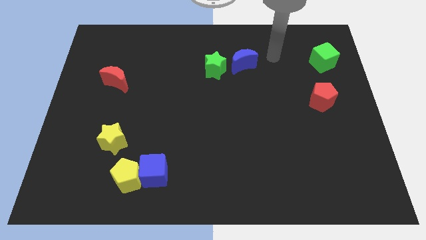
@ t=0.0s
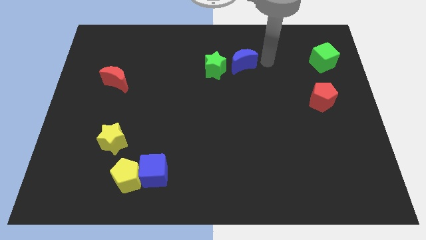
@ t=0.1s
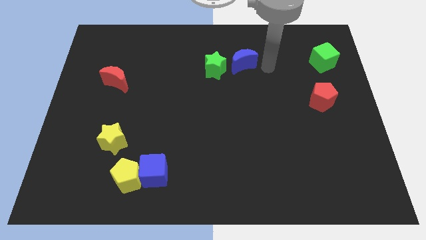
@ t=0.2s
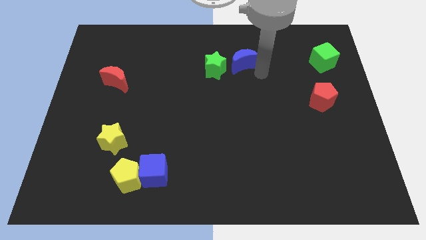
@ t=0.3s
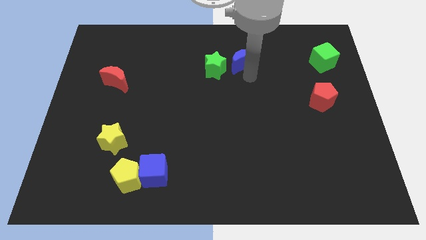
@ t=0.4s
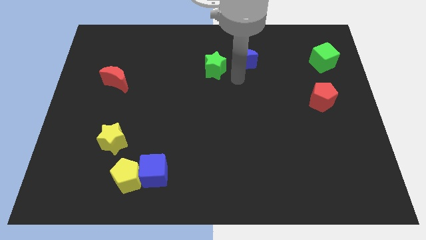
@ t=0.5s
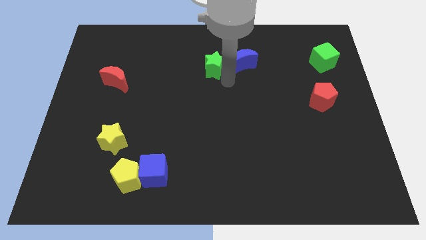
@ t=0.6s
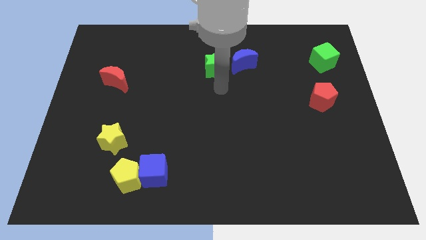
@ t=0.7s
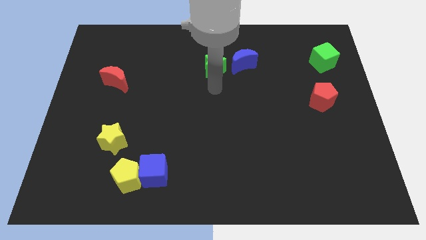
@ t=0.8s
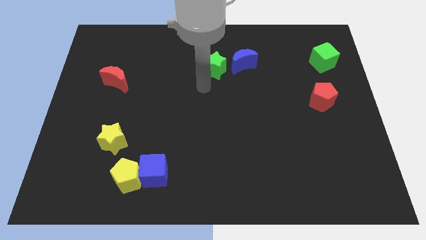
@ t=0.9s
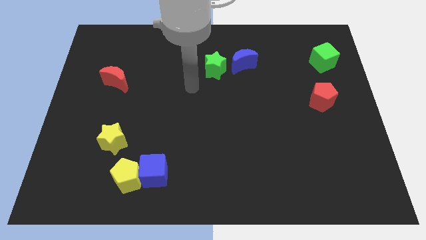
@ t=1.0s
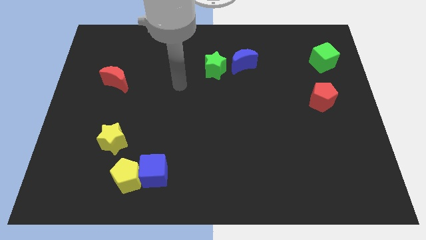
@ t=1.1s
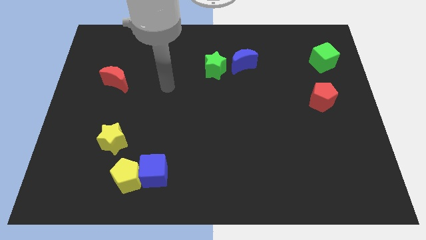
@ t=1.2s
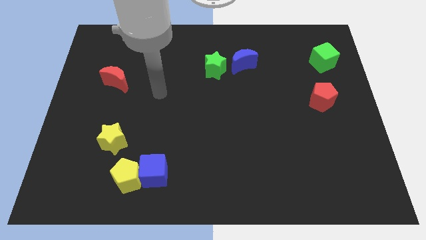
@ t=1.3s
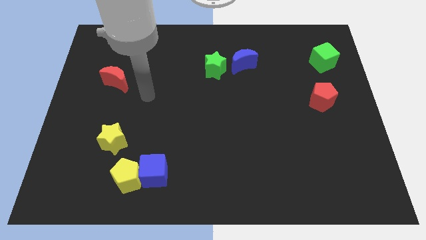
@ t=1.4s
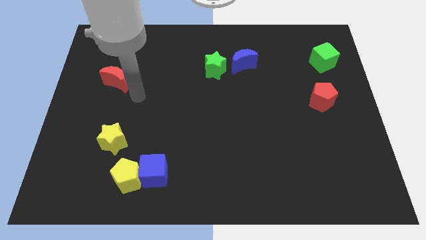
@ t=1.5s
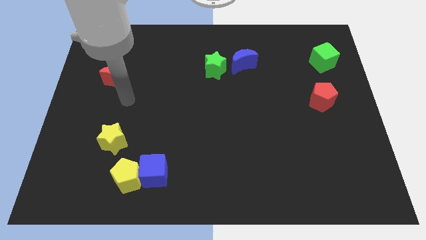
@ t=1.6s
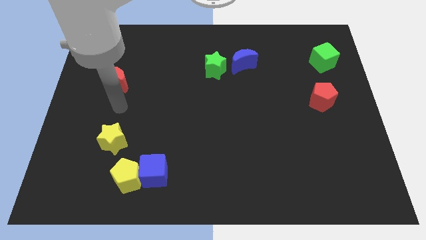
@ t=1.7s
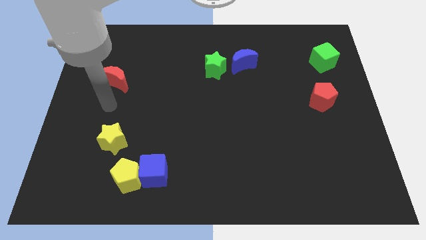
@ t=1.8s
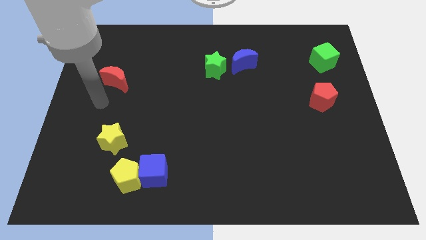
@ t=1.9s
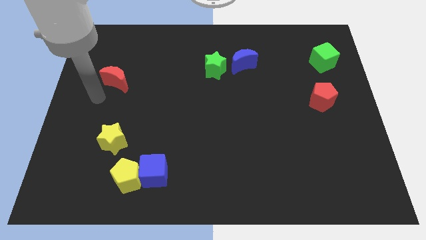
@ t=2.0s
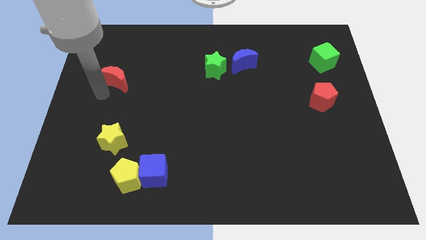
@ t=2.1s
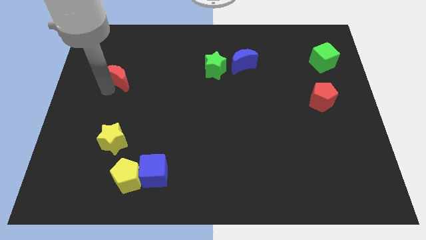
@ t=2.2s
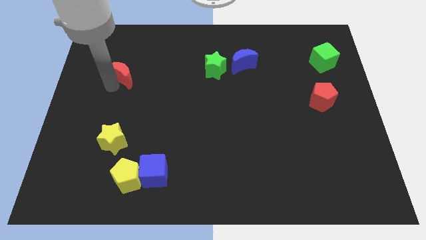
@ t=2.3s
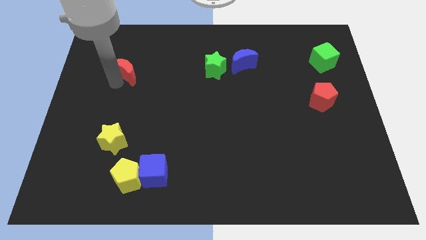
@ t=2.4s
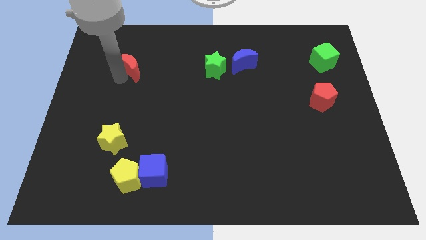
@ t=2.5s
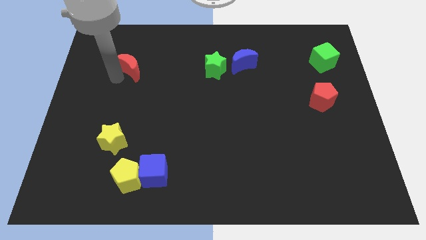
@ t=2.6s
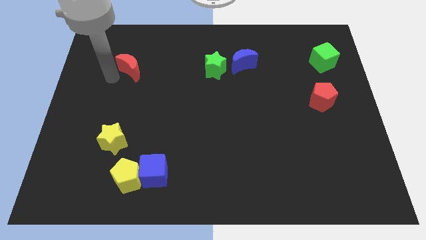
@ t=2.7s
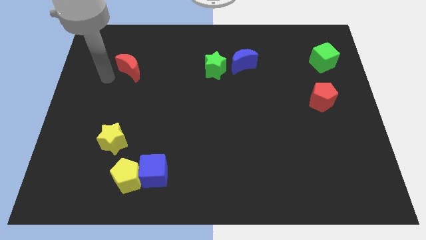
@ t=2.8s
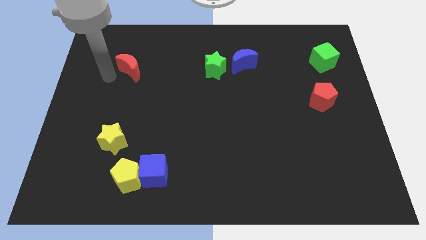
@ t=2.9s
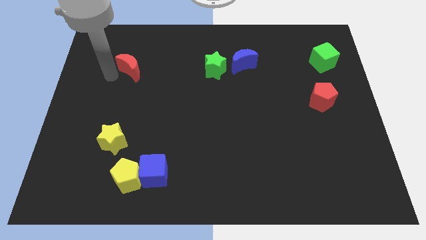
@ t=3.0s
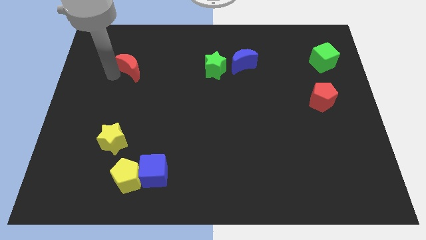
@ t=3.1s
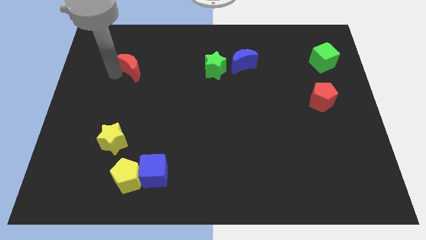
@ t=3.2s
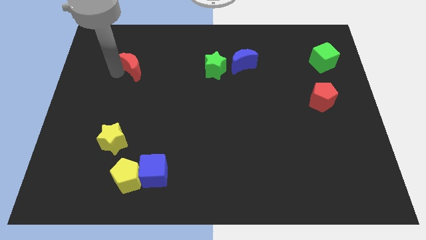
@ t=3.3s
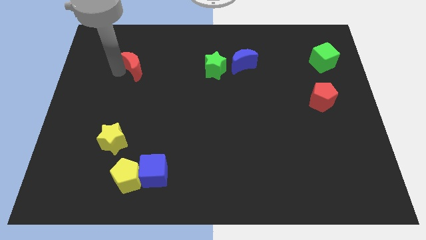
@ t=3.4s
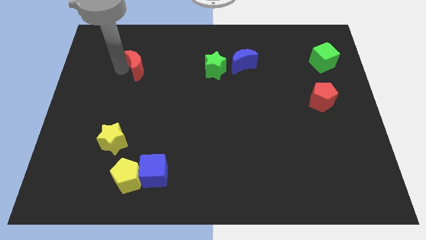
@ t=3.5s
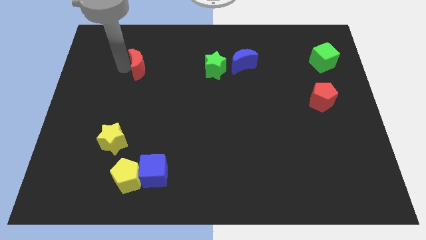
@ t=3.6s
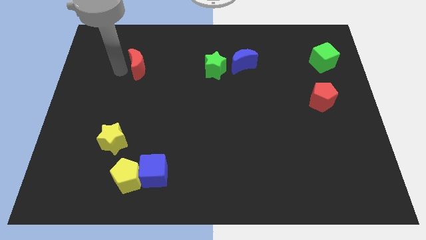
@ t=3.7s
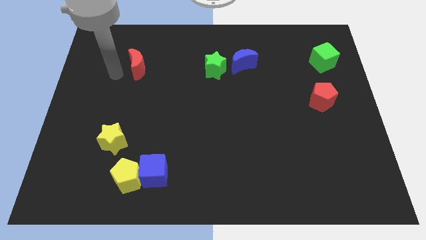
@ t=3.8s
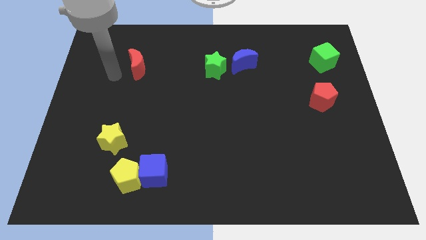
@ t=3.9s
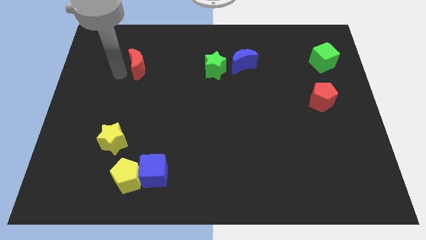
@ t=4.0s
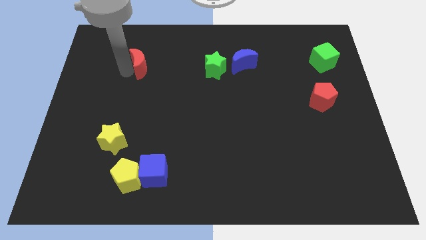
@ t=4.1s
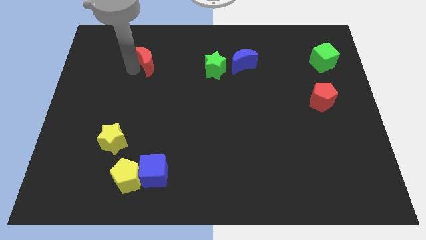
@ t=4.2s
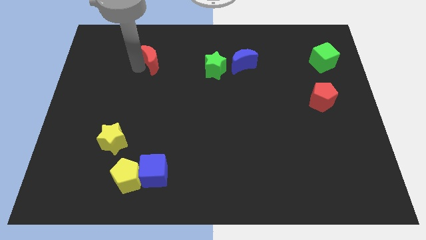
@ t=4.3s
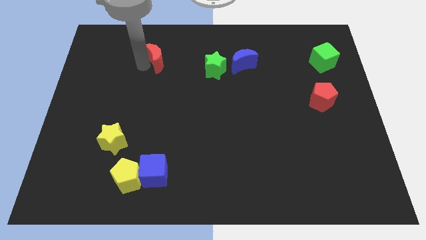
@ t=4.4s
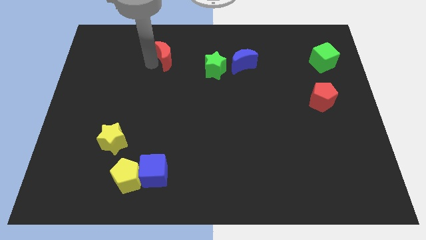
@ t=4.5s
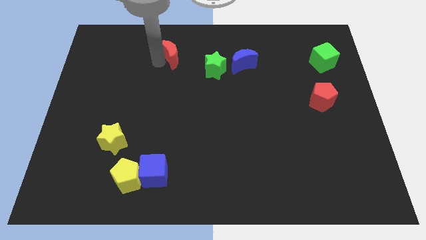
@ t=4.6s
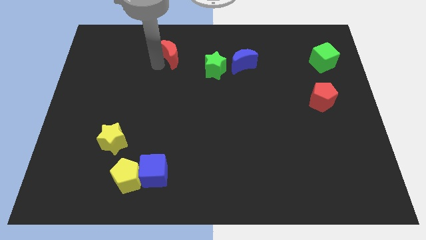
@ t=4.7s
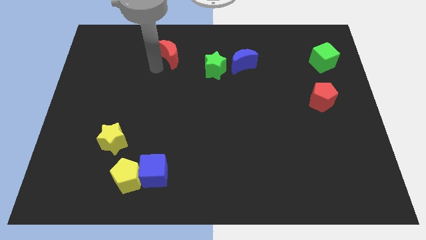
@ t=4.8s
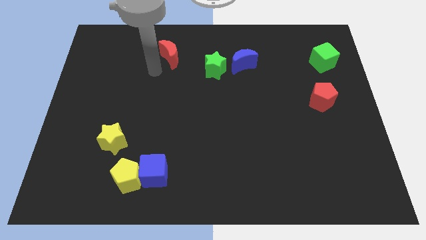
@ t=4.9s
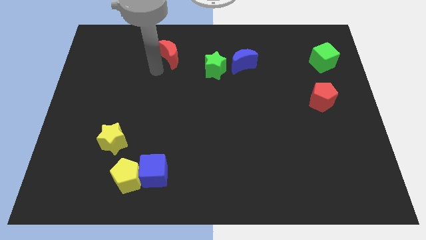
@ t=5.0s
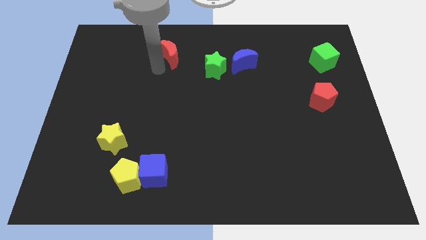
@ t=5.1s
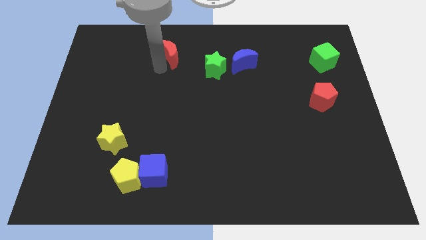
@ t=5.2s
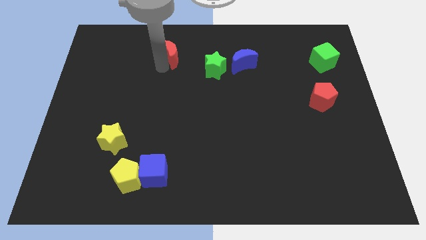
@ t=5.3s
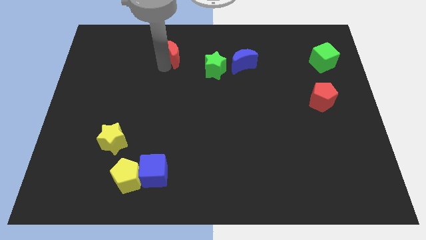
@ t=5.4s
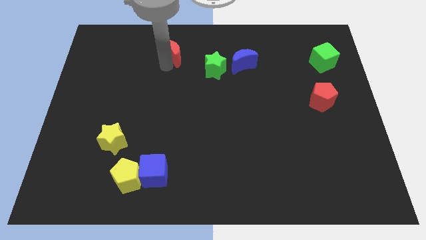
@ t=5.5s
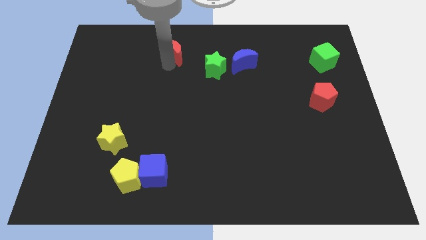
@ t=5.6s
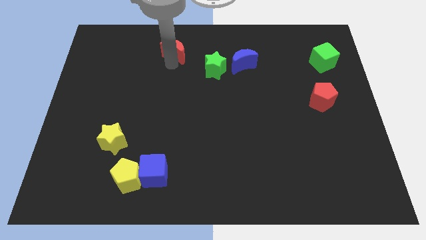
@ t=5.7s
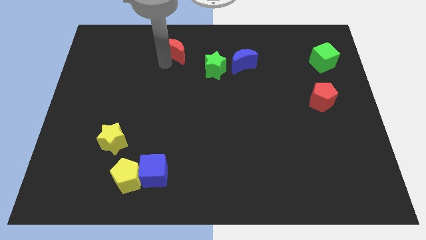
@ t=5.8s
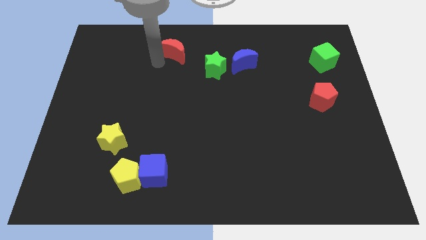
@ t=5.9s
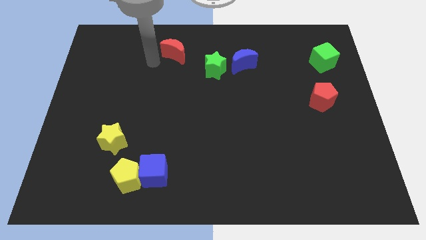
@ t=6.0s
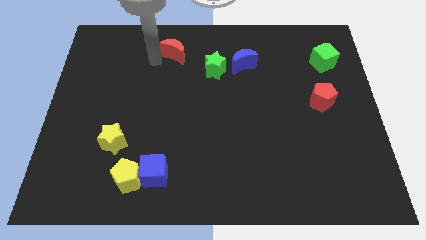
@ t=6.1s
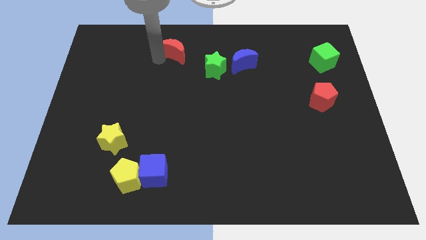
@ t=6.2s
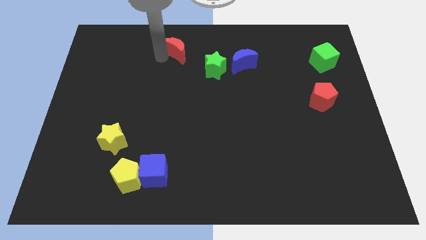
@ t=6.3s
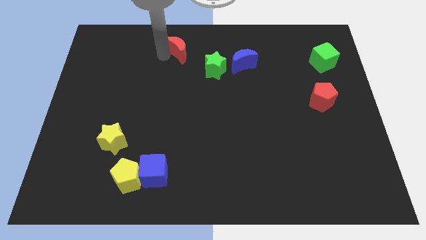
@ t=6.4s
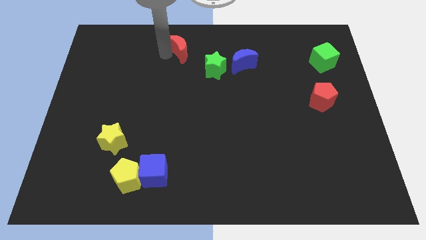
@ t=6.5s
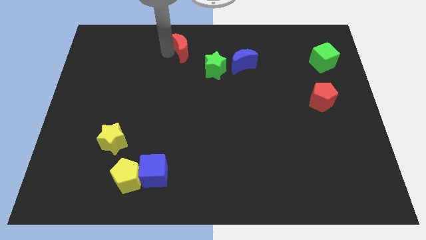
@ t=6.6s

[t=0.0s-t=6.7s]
slide the red moon to the top
